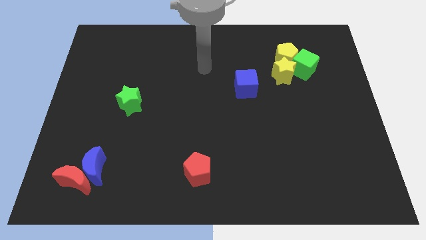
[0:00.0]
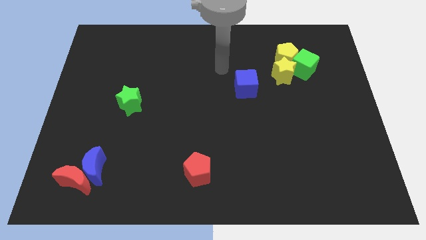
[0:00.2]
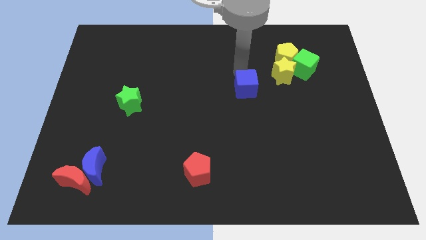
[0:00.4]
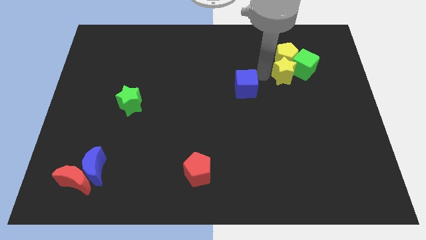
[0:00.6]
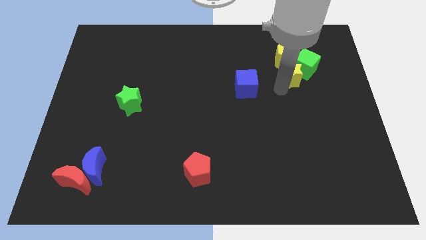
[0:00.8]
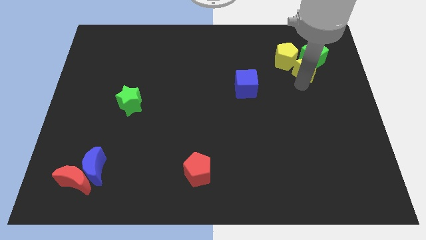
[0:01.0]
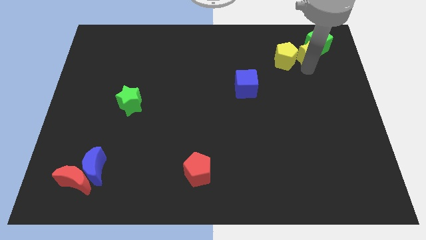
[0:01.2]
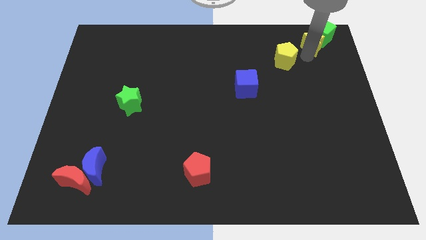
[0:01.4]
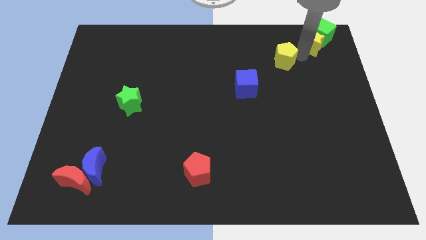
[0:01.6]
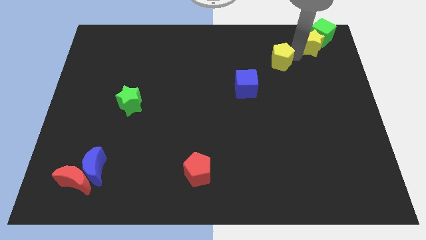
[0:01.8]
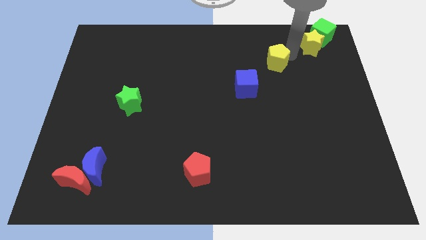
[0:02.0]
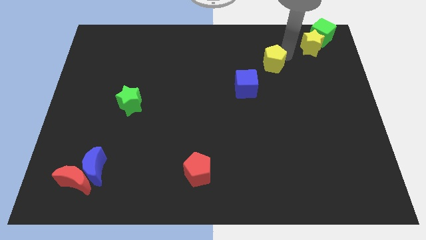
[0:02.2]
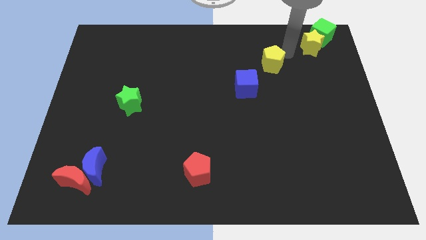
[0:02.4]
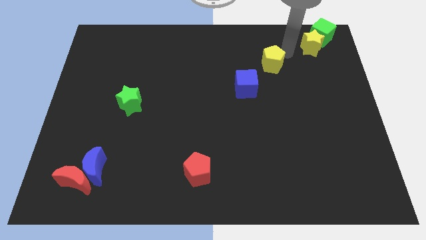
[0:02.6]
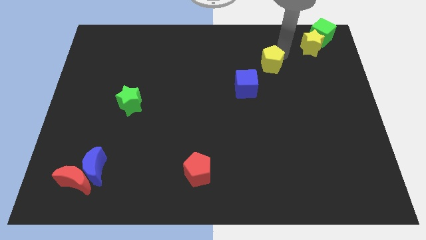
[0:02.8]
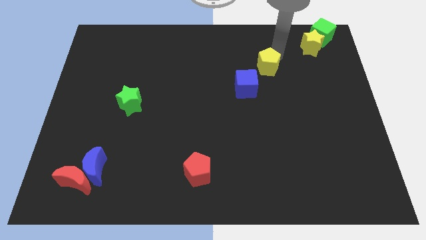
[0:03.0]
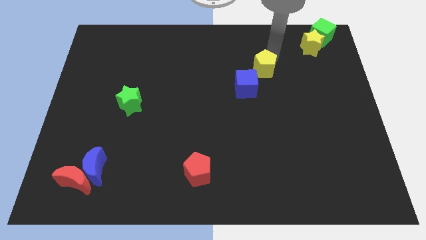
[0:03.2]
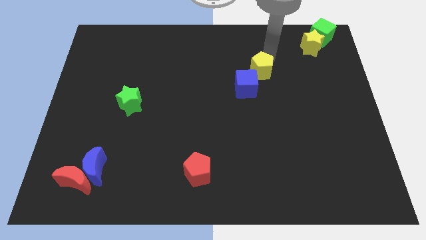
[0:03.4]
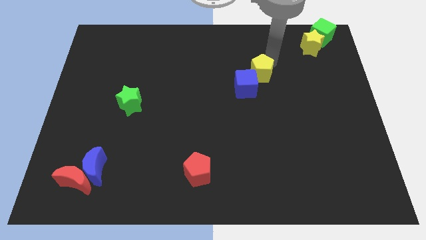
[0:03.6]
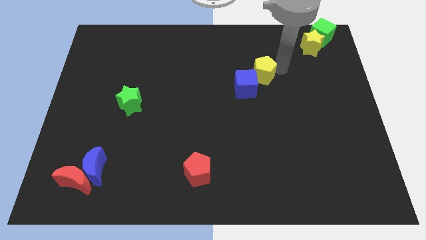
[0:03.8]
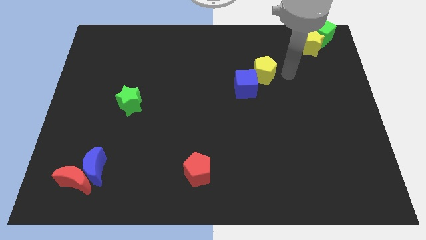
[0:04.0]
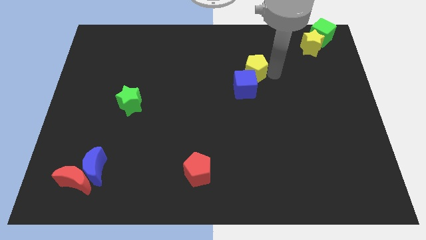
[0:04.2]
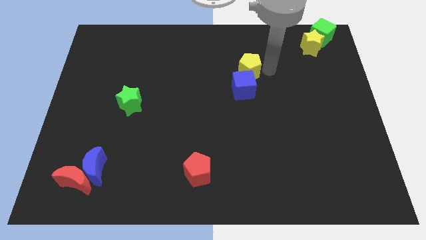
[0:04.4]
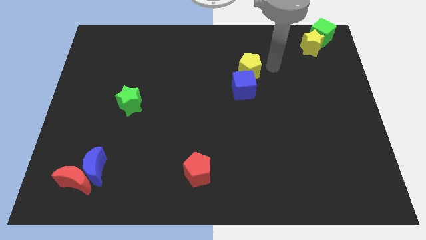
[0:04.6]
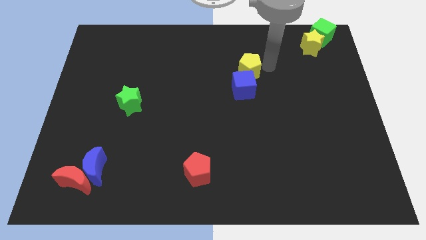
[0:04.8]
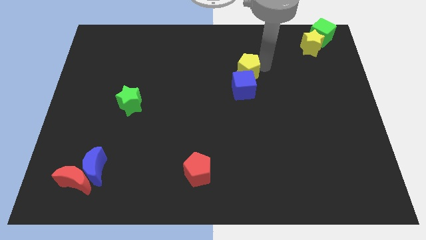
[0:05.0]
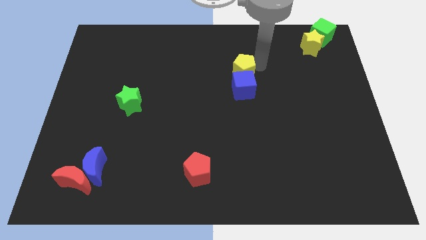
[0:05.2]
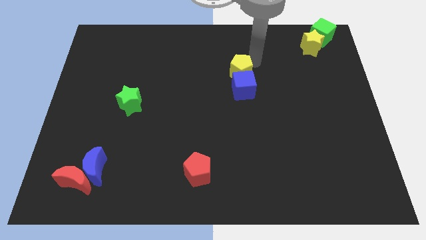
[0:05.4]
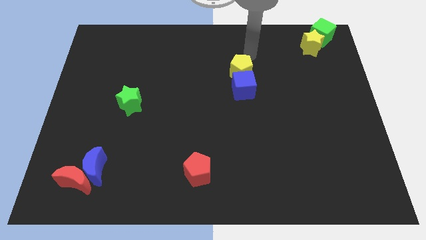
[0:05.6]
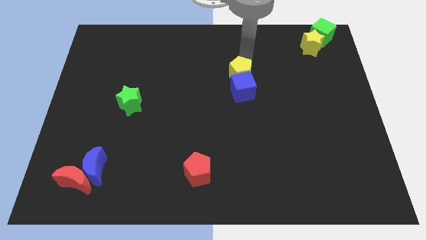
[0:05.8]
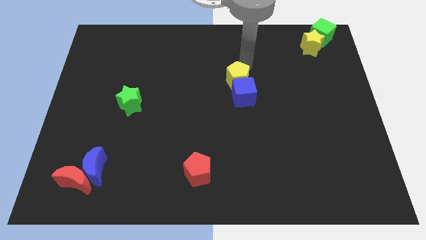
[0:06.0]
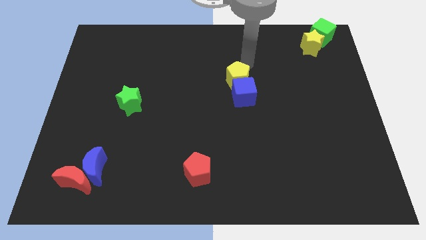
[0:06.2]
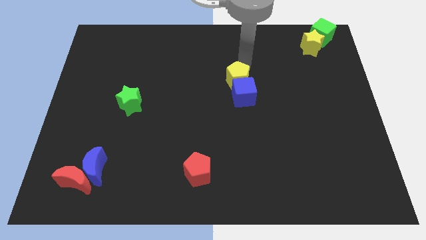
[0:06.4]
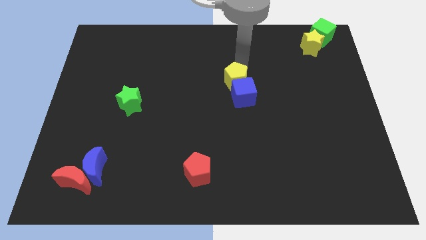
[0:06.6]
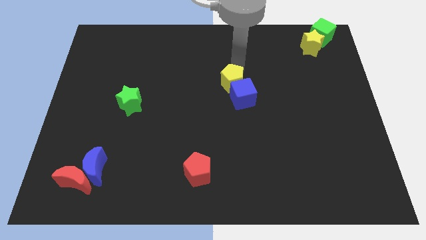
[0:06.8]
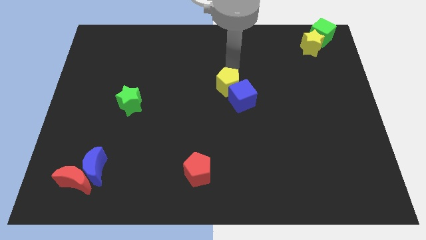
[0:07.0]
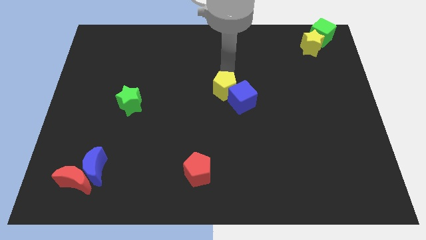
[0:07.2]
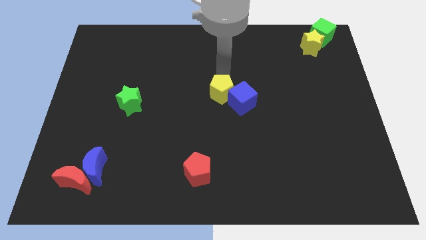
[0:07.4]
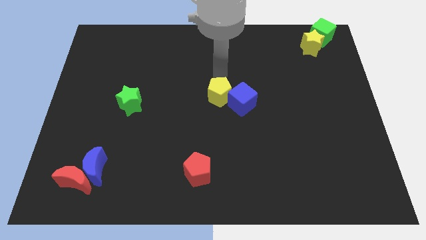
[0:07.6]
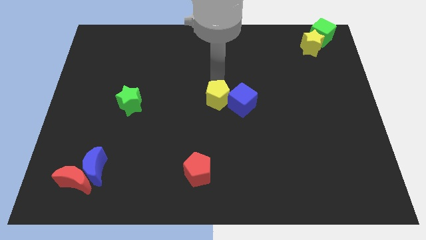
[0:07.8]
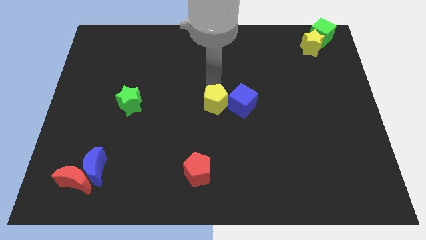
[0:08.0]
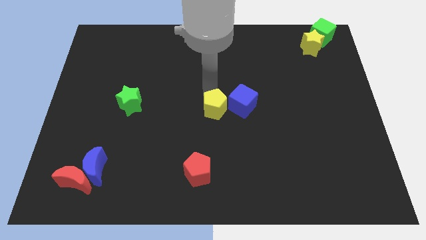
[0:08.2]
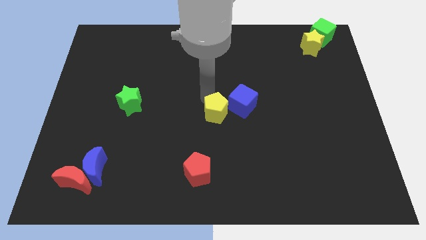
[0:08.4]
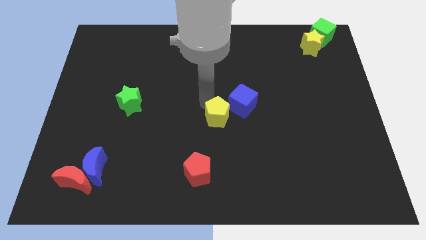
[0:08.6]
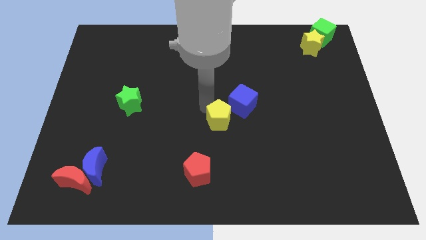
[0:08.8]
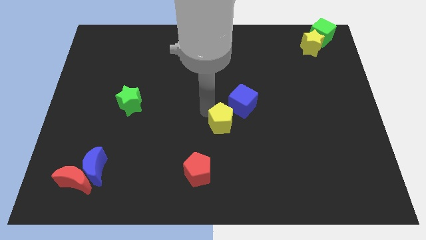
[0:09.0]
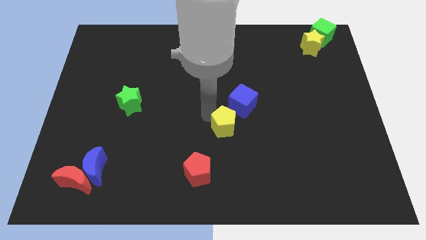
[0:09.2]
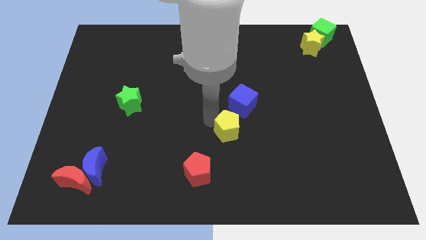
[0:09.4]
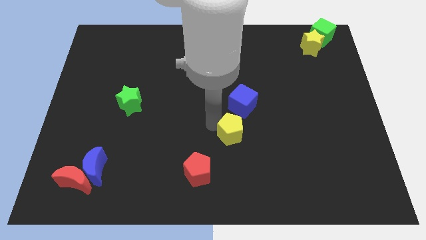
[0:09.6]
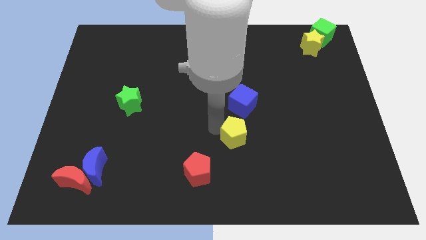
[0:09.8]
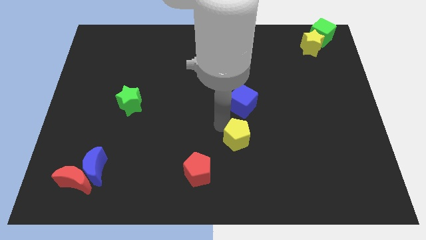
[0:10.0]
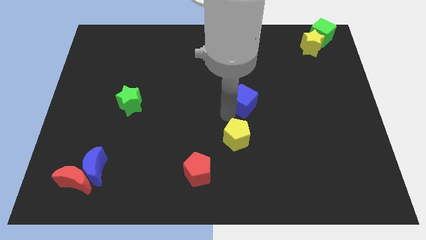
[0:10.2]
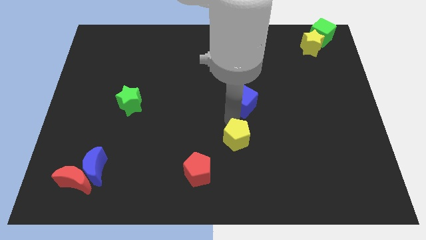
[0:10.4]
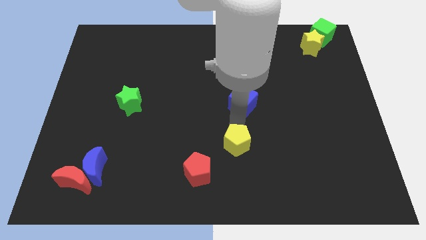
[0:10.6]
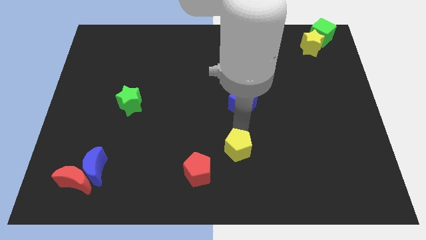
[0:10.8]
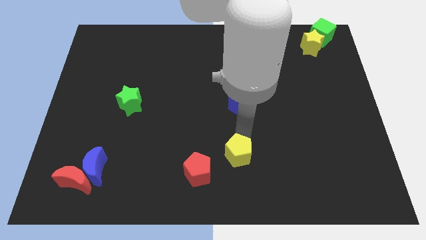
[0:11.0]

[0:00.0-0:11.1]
put the yellow pentagon just right of the red pentagon

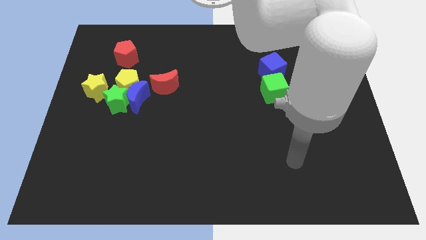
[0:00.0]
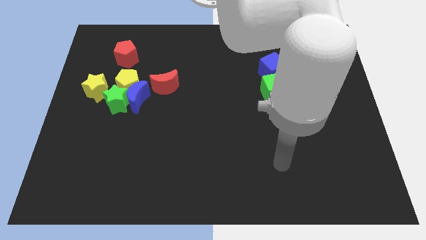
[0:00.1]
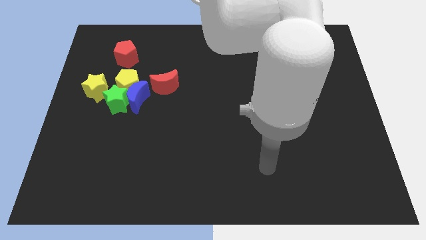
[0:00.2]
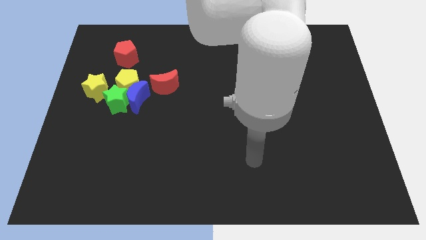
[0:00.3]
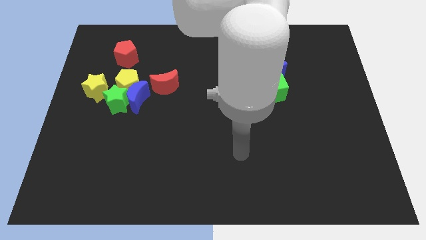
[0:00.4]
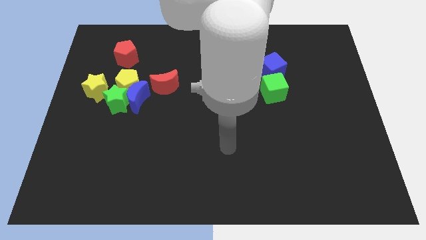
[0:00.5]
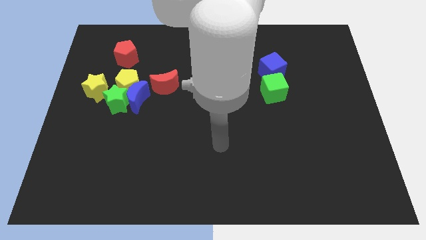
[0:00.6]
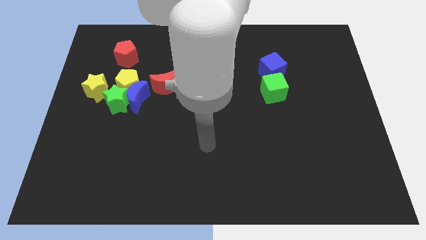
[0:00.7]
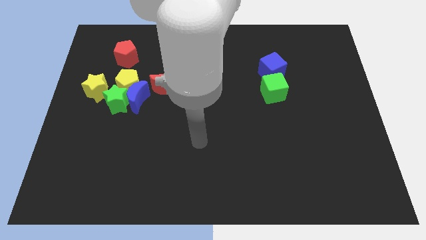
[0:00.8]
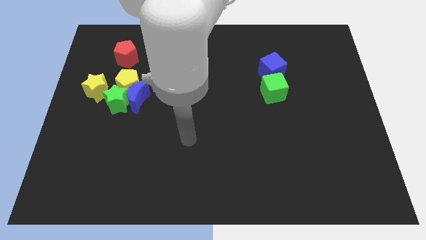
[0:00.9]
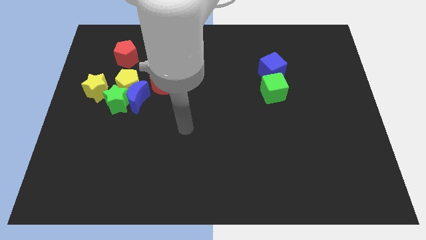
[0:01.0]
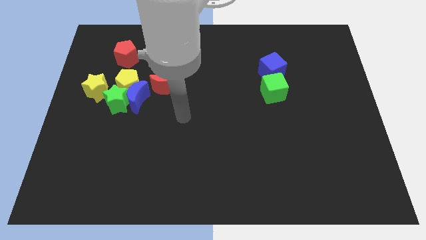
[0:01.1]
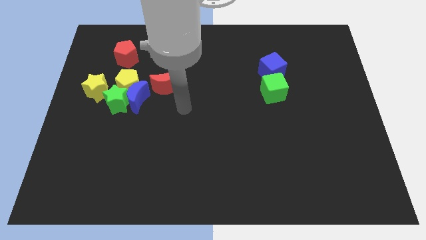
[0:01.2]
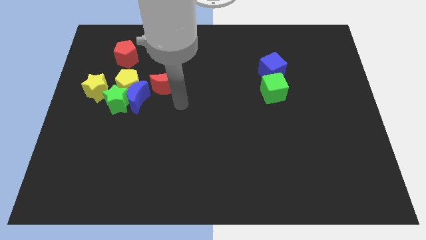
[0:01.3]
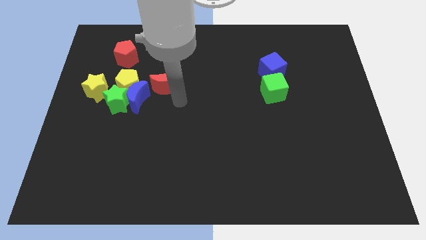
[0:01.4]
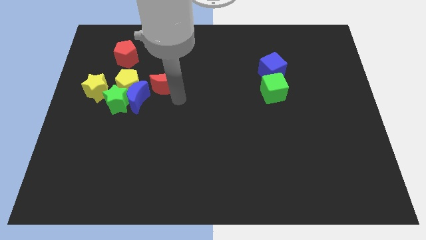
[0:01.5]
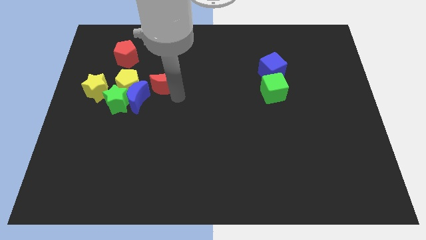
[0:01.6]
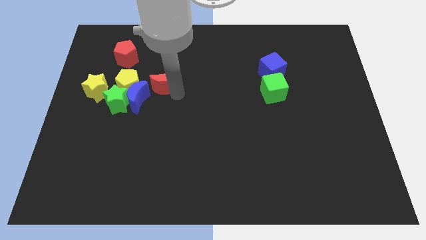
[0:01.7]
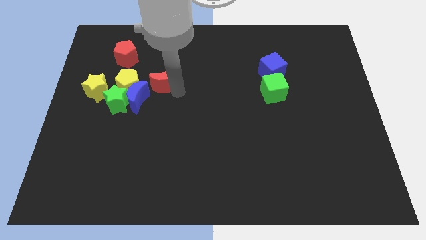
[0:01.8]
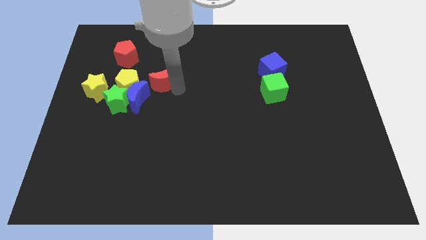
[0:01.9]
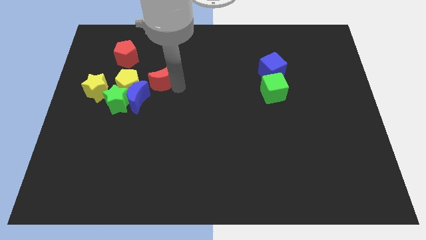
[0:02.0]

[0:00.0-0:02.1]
slide the red moon to the top right of the yellow pentagon

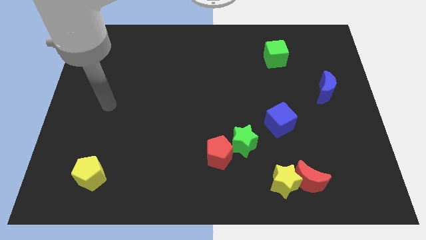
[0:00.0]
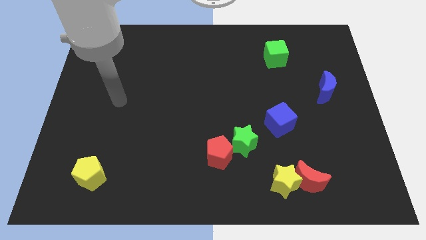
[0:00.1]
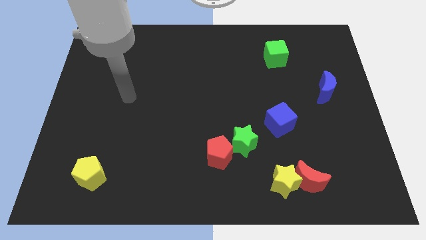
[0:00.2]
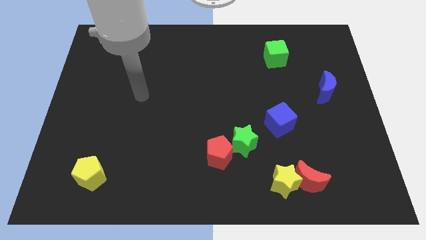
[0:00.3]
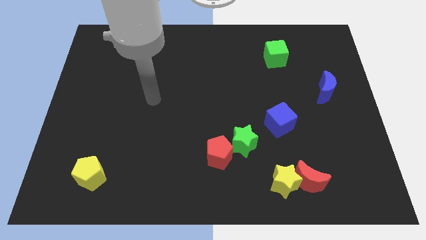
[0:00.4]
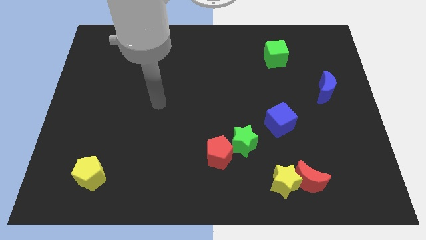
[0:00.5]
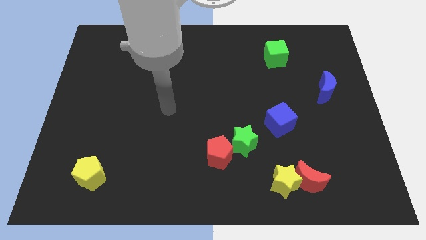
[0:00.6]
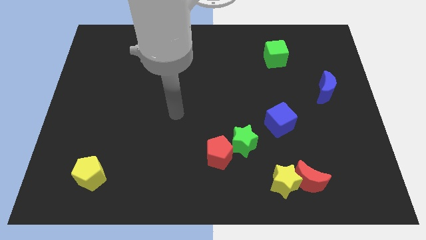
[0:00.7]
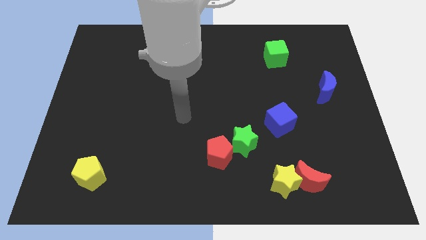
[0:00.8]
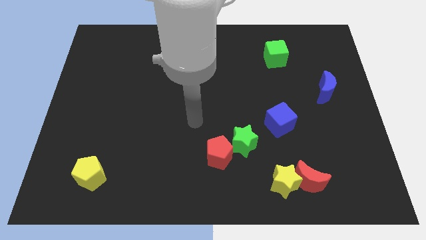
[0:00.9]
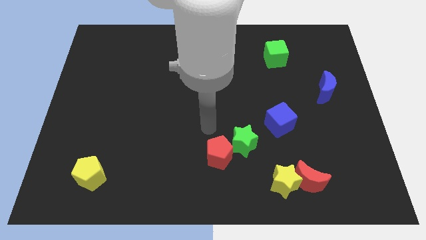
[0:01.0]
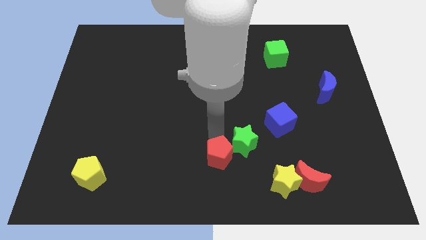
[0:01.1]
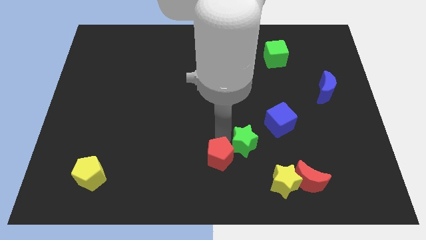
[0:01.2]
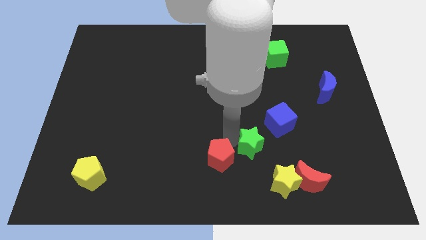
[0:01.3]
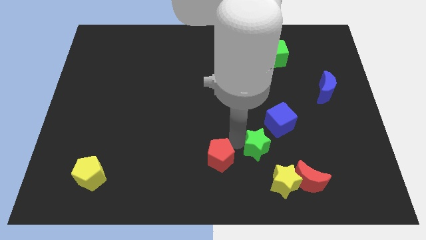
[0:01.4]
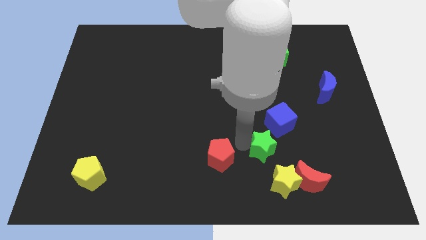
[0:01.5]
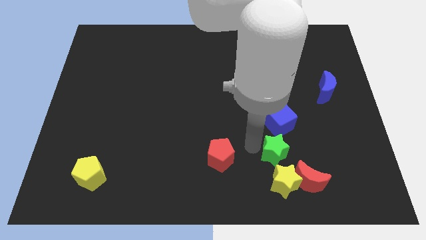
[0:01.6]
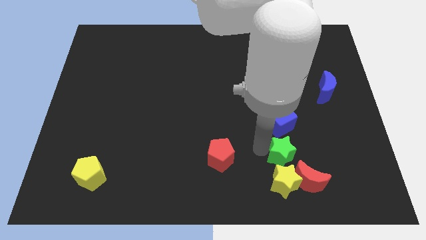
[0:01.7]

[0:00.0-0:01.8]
push the green star to the top right side of the yellow star
